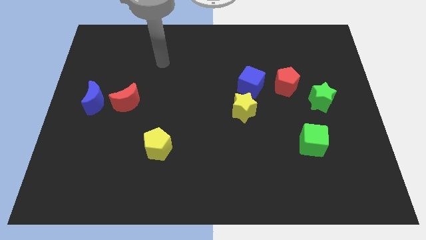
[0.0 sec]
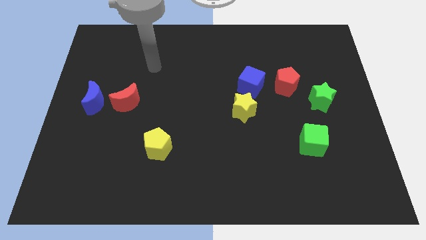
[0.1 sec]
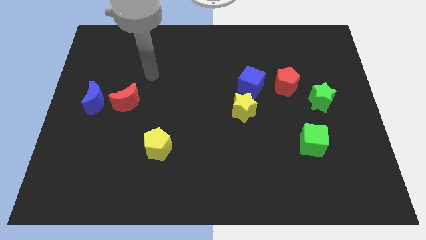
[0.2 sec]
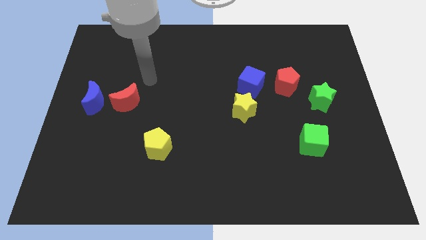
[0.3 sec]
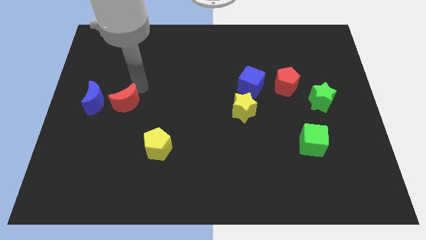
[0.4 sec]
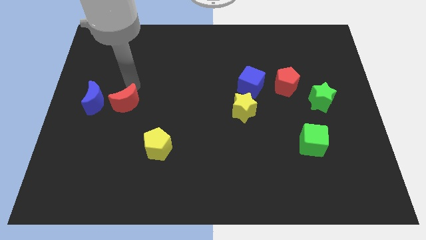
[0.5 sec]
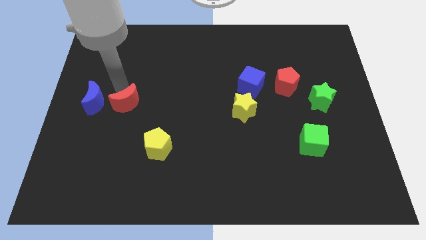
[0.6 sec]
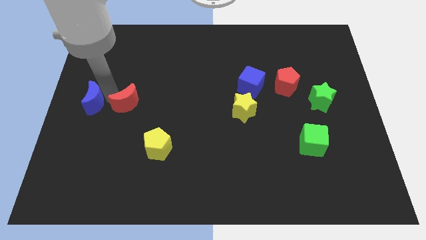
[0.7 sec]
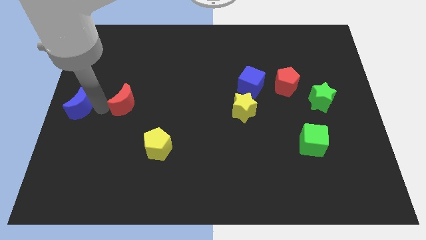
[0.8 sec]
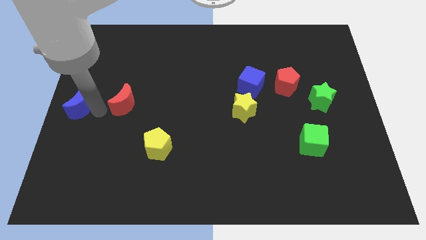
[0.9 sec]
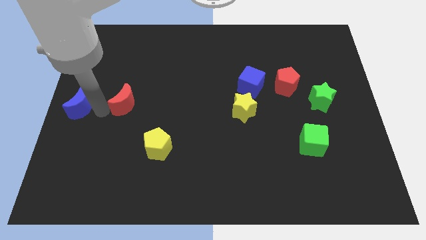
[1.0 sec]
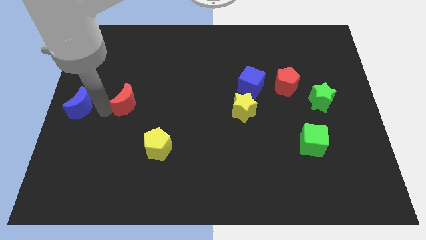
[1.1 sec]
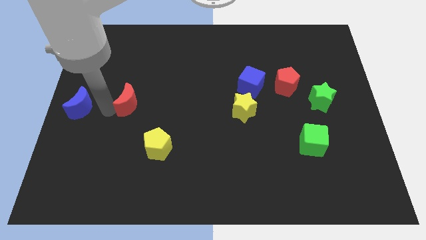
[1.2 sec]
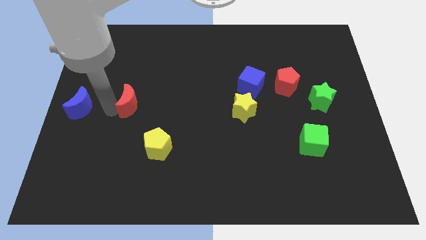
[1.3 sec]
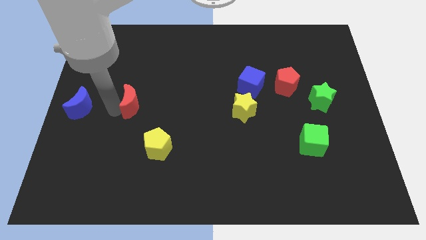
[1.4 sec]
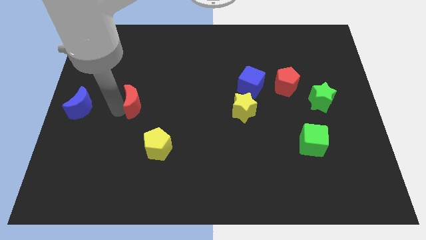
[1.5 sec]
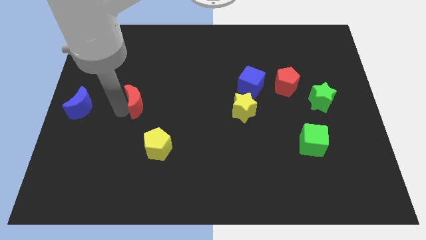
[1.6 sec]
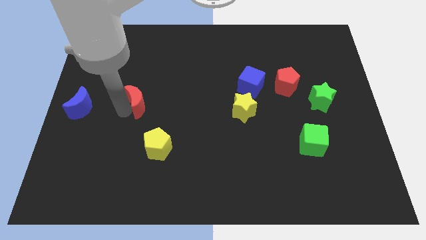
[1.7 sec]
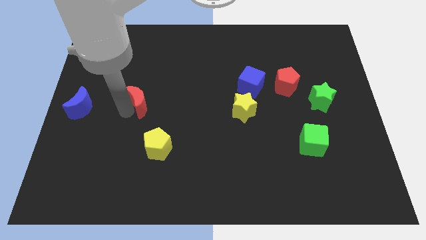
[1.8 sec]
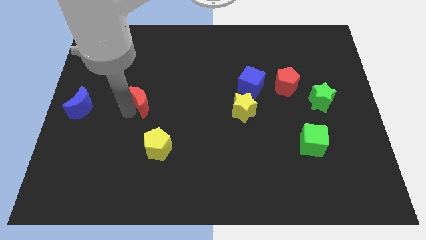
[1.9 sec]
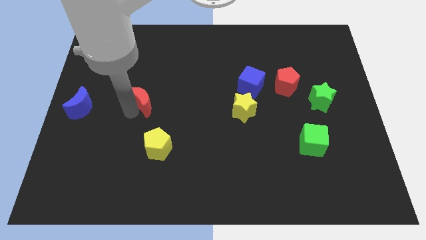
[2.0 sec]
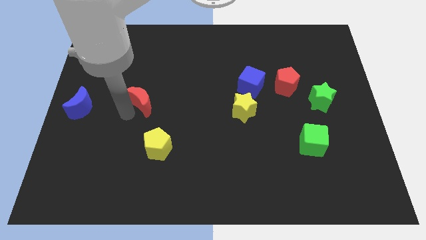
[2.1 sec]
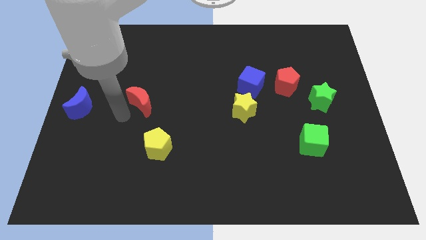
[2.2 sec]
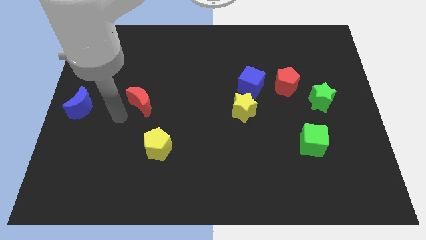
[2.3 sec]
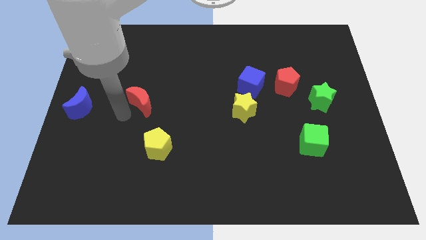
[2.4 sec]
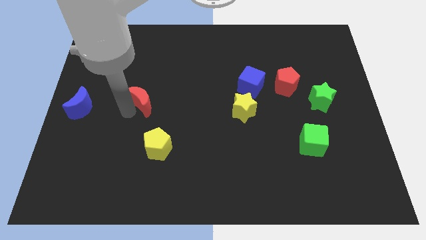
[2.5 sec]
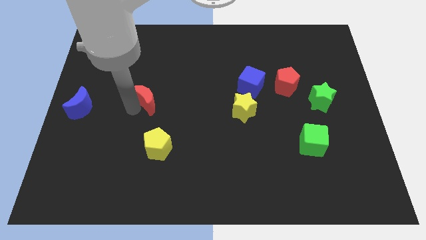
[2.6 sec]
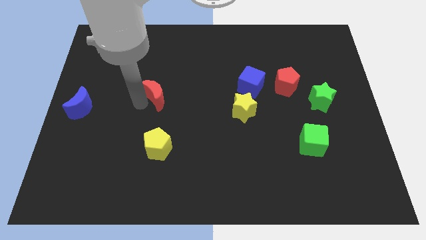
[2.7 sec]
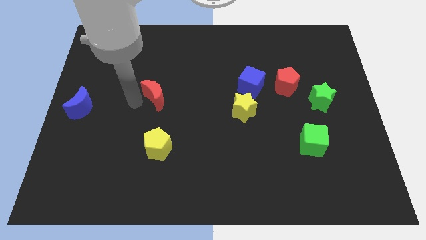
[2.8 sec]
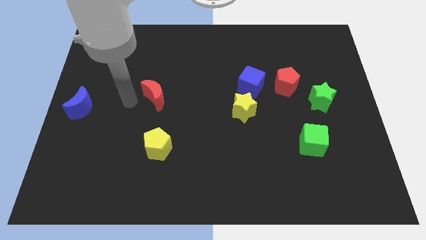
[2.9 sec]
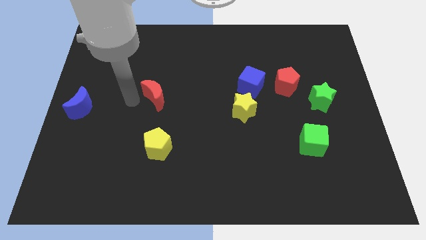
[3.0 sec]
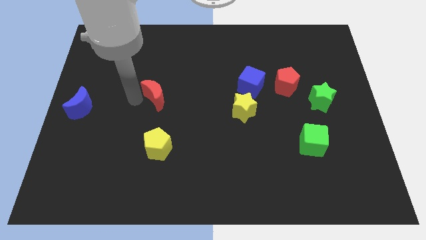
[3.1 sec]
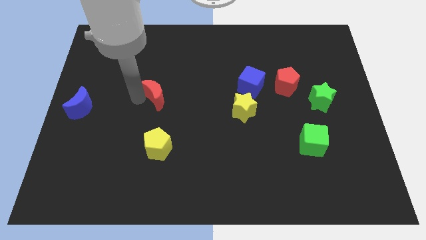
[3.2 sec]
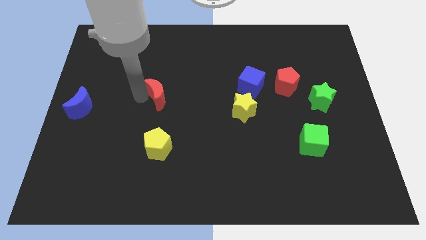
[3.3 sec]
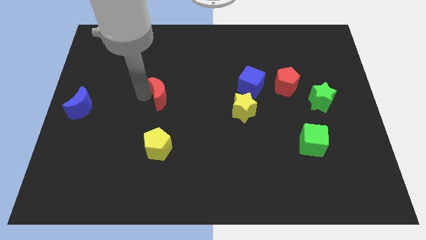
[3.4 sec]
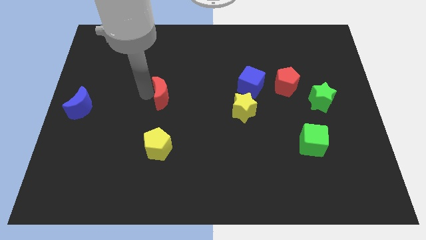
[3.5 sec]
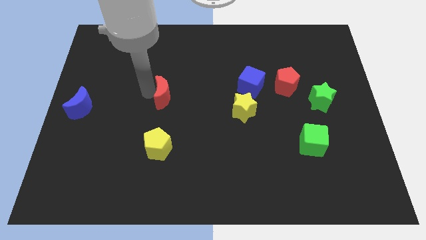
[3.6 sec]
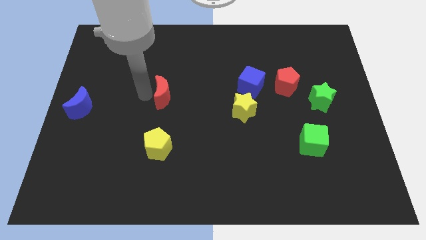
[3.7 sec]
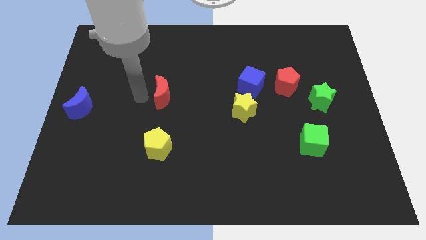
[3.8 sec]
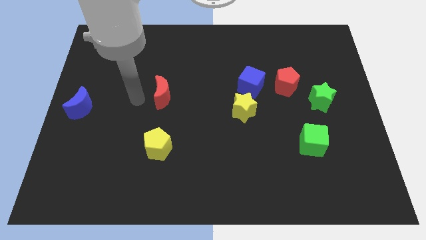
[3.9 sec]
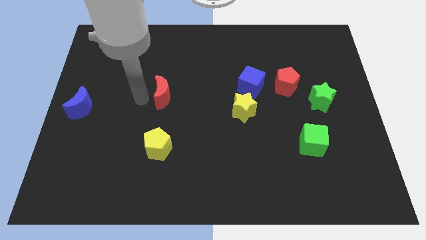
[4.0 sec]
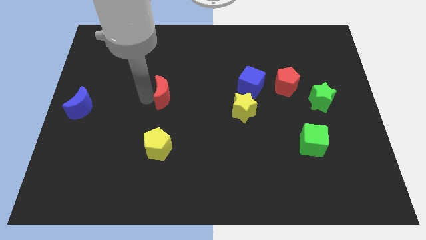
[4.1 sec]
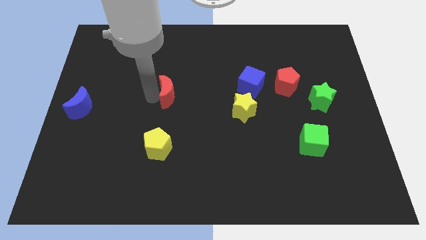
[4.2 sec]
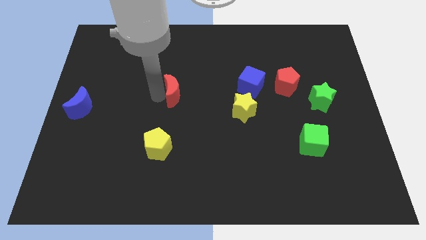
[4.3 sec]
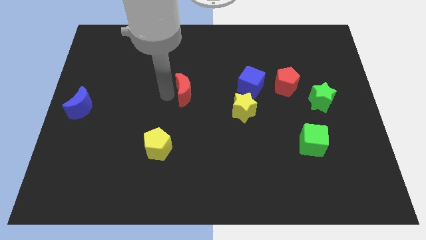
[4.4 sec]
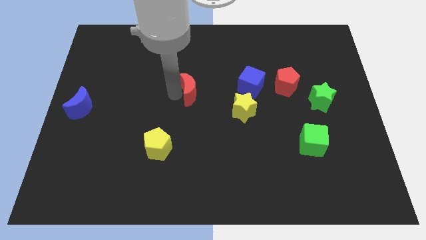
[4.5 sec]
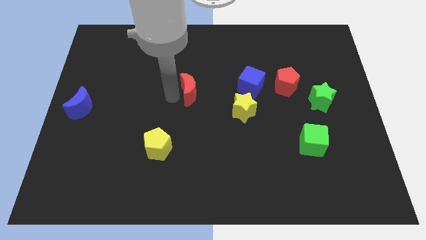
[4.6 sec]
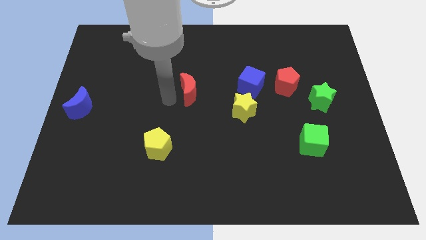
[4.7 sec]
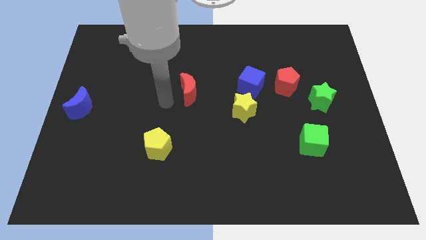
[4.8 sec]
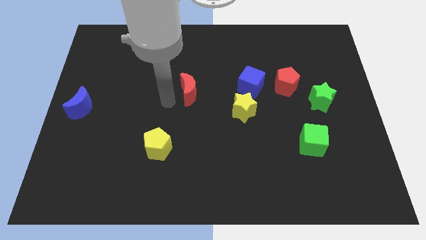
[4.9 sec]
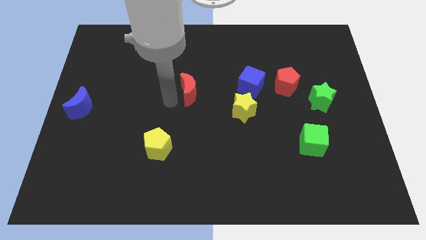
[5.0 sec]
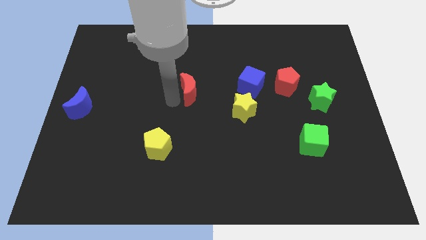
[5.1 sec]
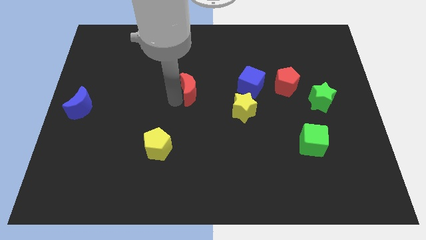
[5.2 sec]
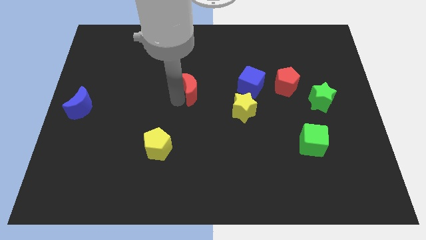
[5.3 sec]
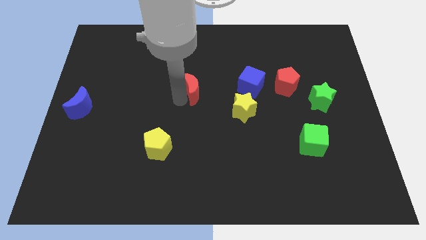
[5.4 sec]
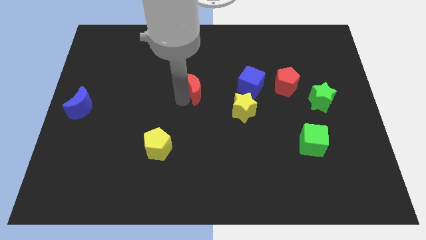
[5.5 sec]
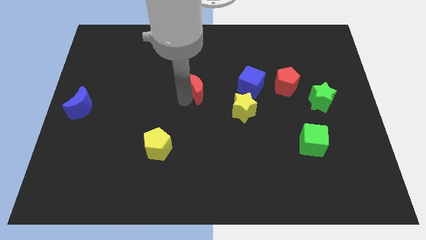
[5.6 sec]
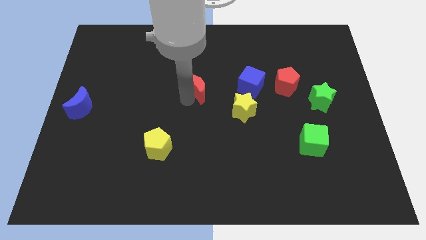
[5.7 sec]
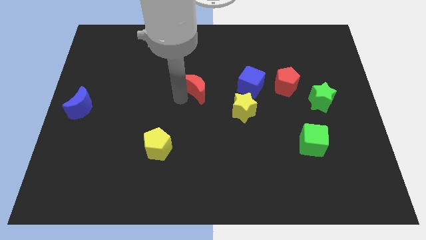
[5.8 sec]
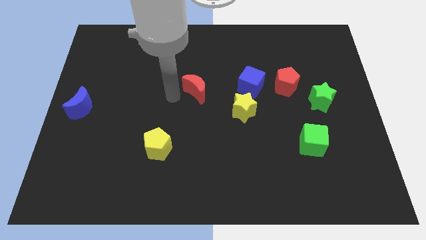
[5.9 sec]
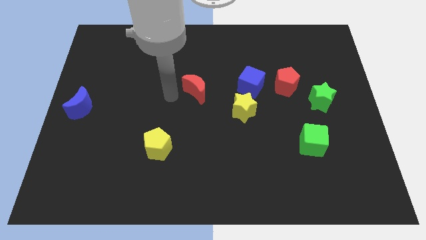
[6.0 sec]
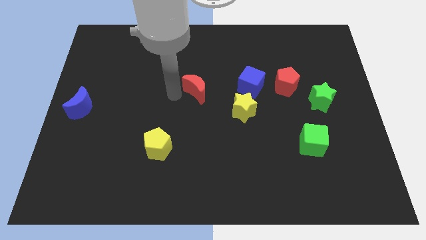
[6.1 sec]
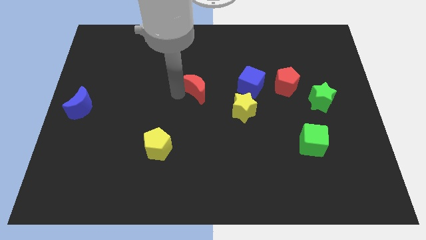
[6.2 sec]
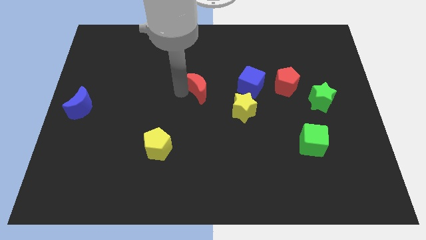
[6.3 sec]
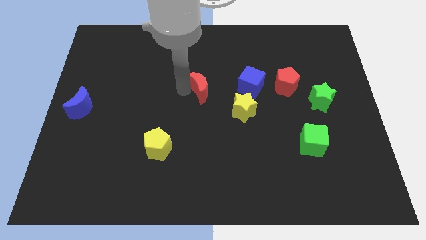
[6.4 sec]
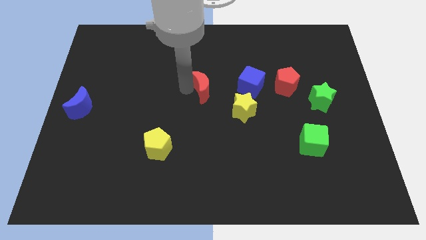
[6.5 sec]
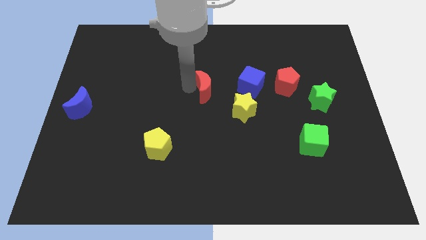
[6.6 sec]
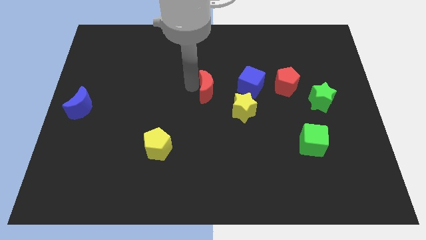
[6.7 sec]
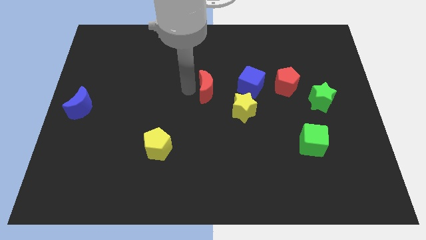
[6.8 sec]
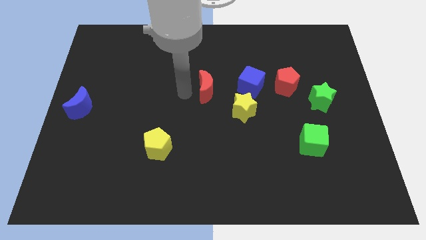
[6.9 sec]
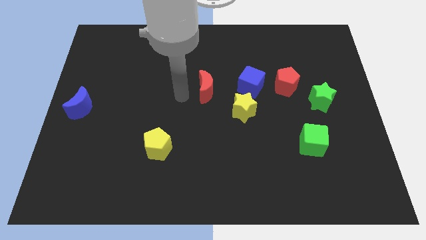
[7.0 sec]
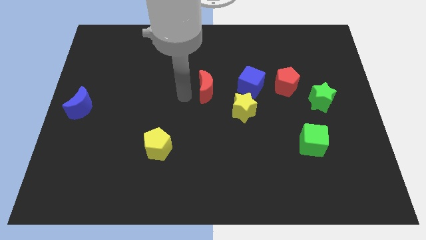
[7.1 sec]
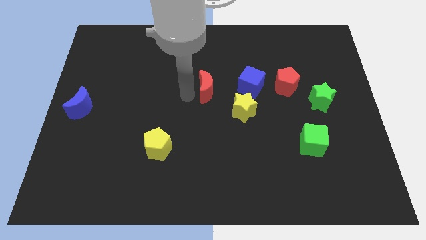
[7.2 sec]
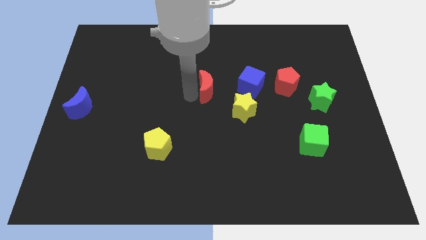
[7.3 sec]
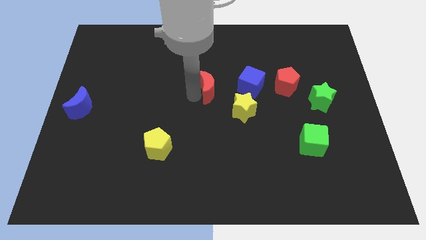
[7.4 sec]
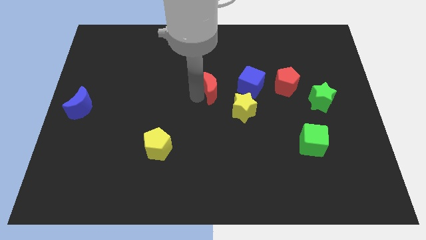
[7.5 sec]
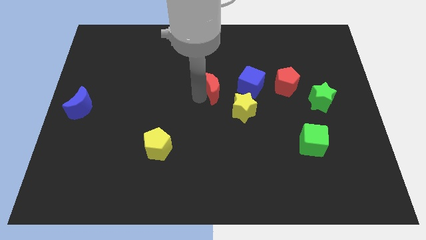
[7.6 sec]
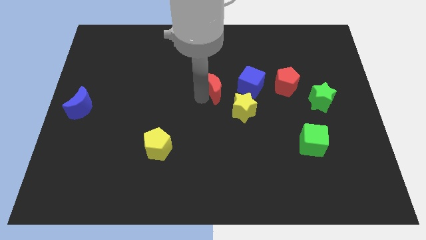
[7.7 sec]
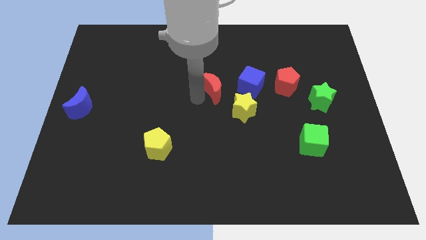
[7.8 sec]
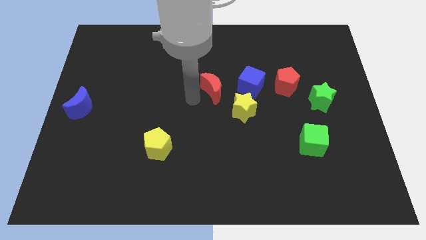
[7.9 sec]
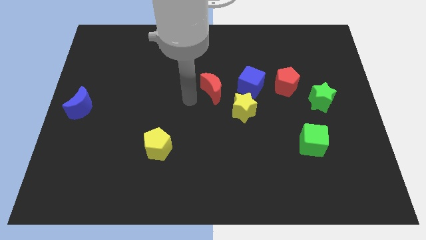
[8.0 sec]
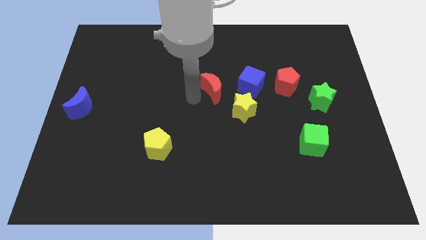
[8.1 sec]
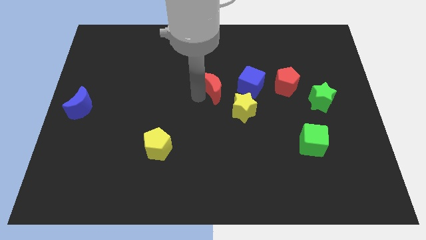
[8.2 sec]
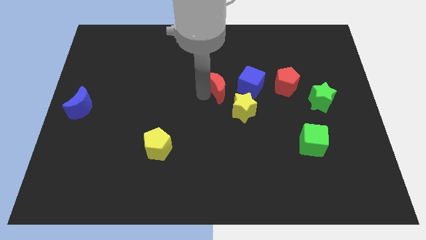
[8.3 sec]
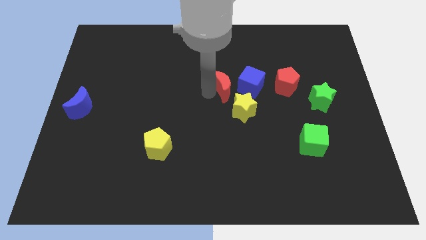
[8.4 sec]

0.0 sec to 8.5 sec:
put the red moon to the top of the yellow star
